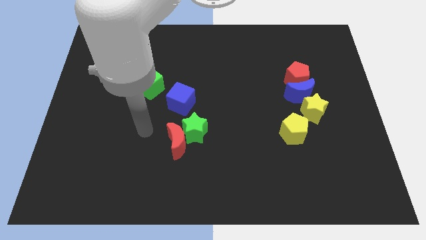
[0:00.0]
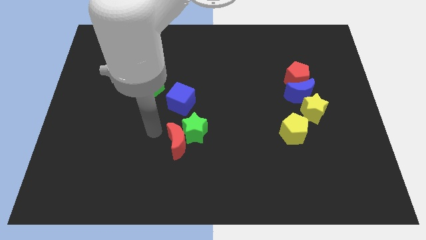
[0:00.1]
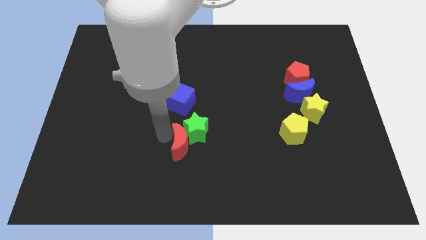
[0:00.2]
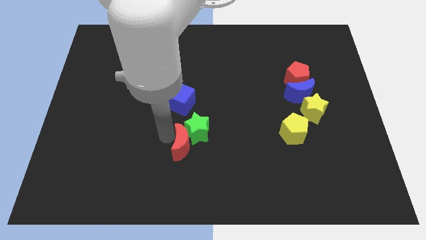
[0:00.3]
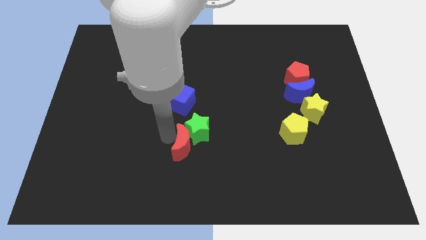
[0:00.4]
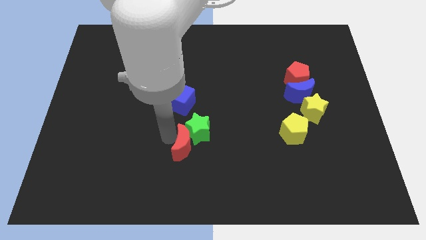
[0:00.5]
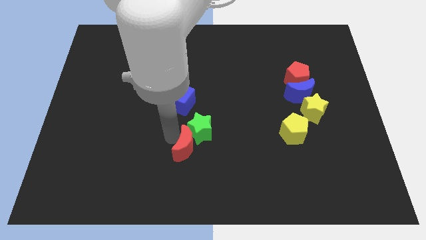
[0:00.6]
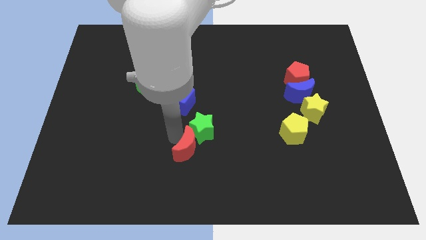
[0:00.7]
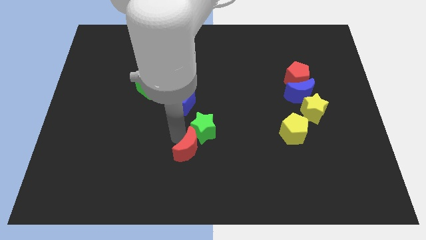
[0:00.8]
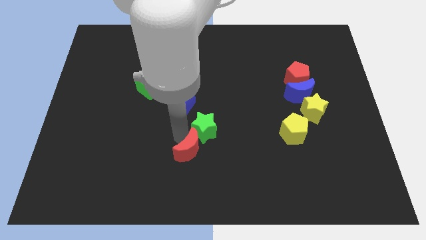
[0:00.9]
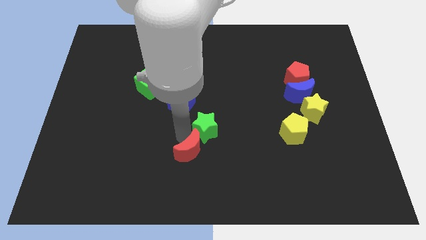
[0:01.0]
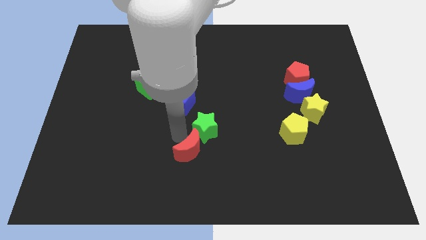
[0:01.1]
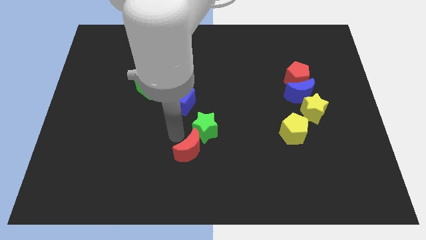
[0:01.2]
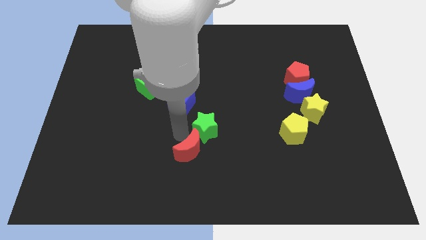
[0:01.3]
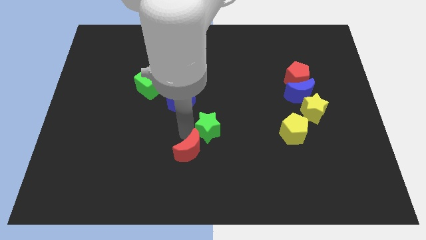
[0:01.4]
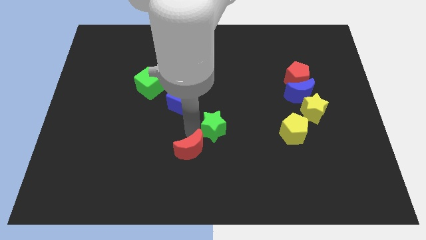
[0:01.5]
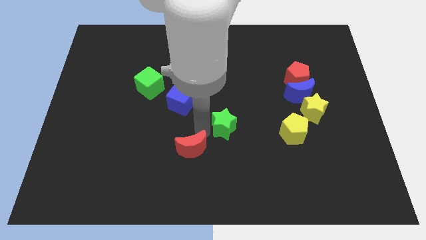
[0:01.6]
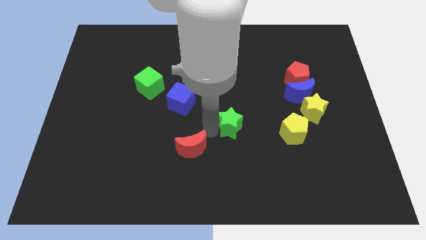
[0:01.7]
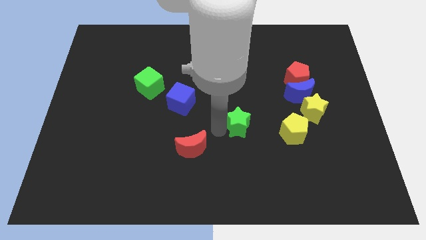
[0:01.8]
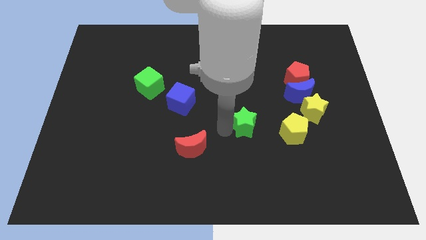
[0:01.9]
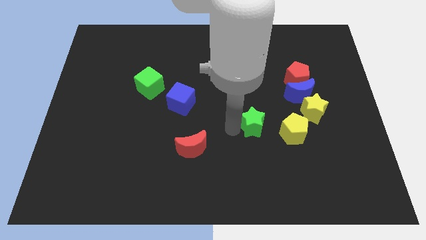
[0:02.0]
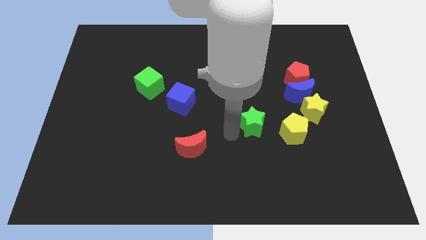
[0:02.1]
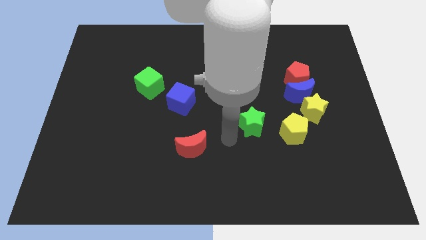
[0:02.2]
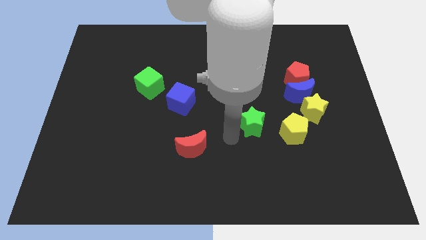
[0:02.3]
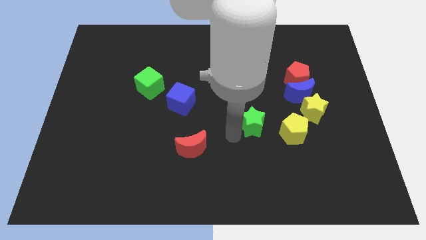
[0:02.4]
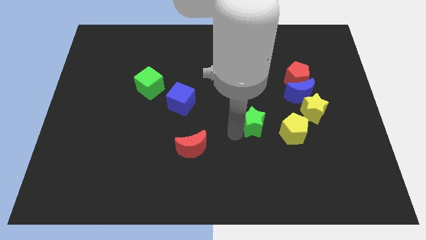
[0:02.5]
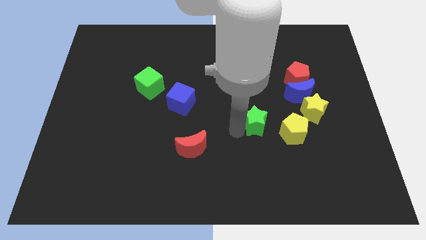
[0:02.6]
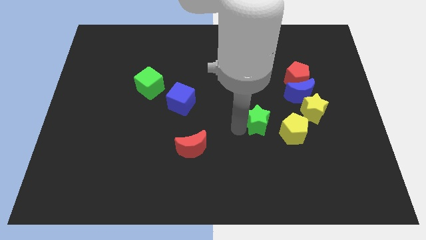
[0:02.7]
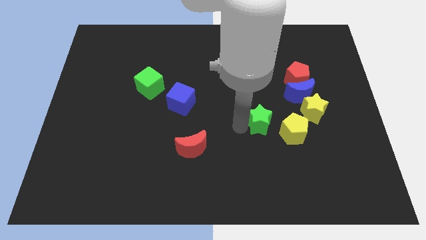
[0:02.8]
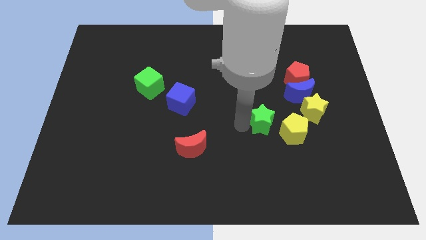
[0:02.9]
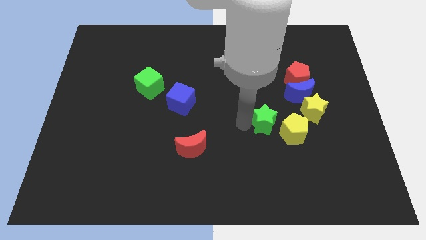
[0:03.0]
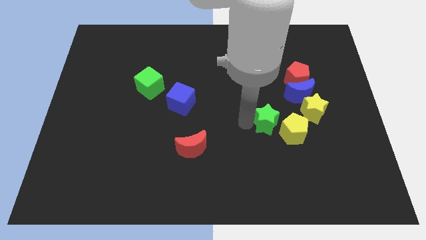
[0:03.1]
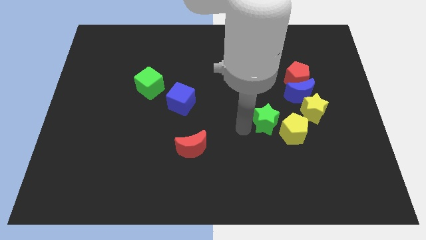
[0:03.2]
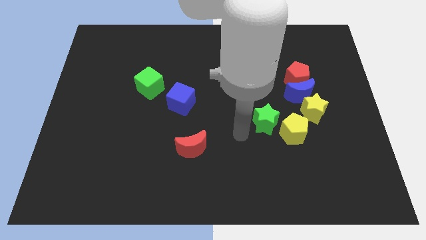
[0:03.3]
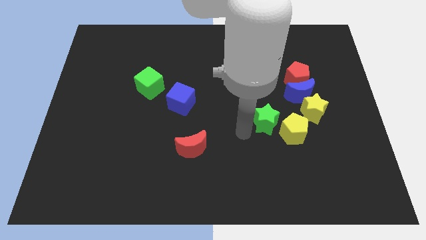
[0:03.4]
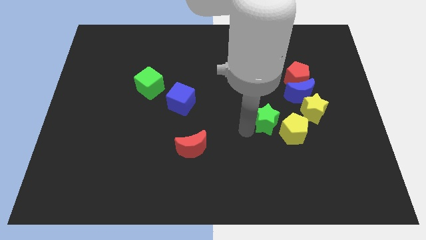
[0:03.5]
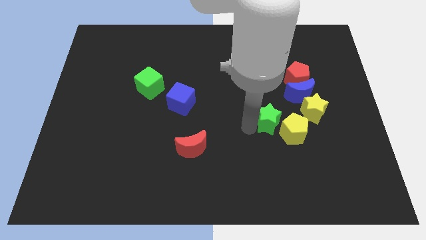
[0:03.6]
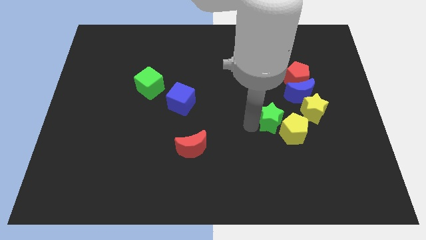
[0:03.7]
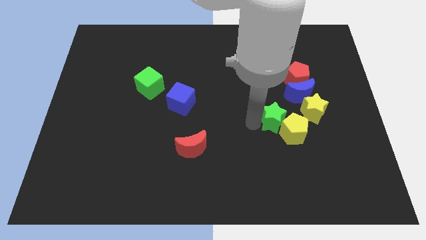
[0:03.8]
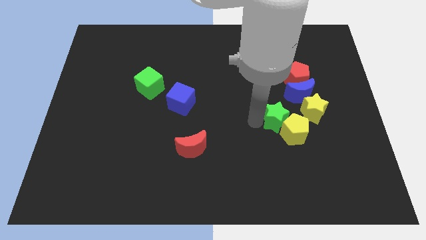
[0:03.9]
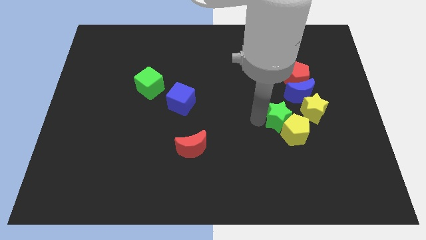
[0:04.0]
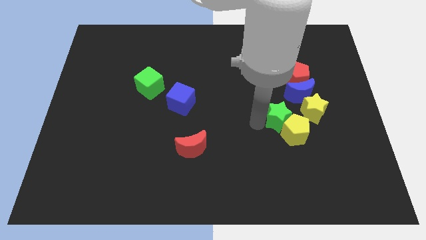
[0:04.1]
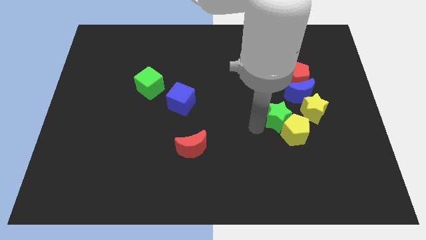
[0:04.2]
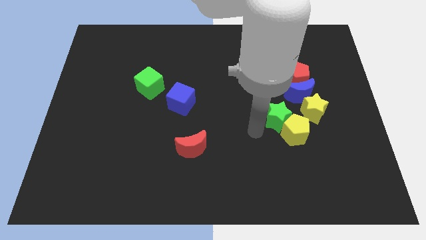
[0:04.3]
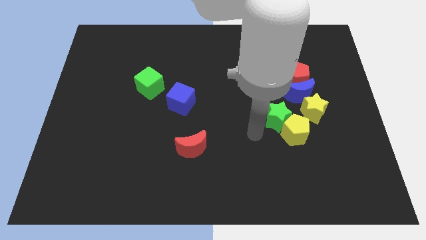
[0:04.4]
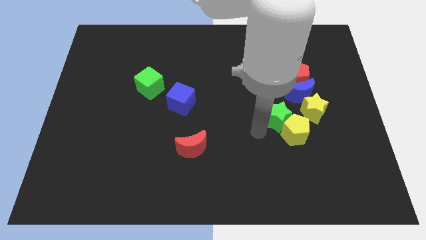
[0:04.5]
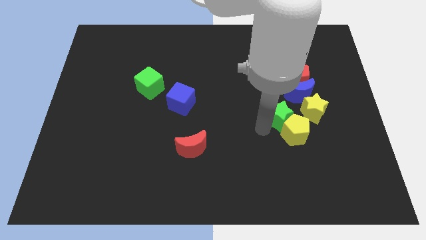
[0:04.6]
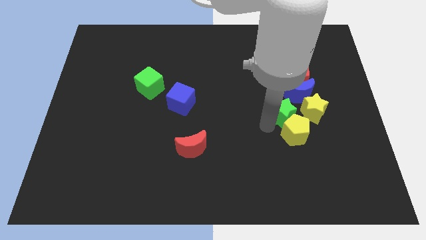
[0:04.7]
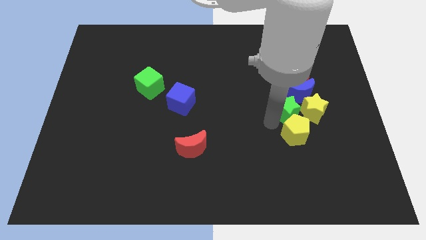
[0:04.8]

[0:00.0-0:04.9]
push the green star next to the yellow star

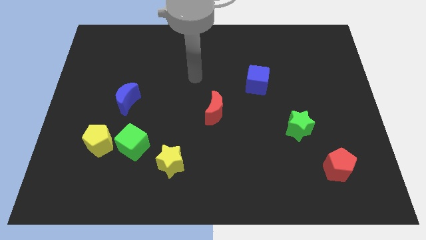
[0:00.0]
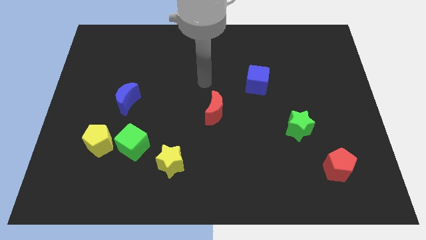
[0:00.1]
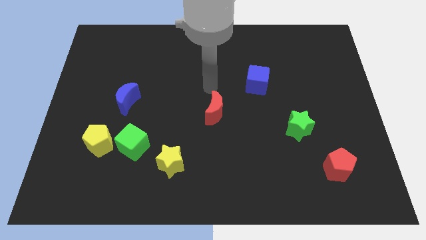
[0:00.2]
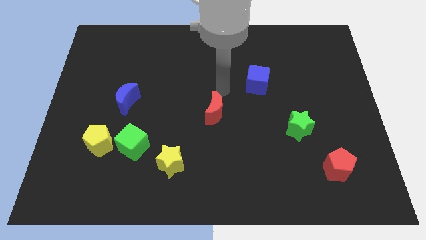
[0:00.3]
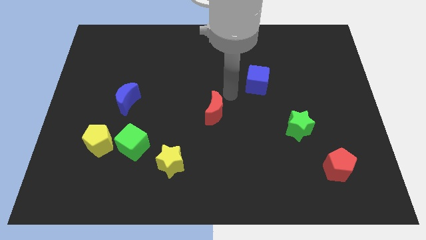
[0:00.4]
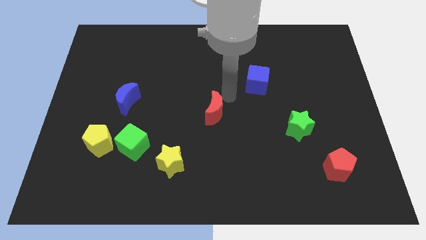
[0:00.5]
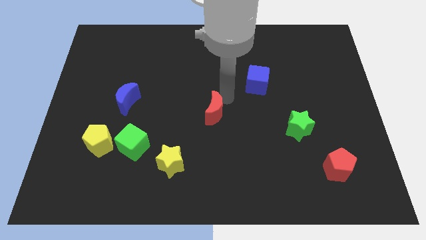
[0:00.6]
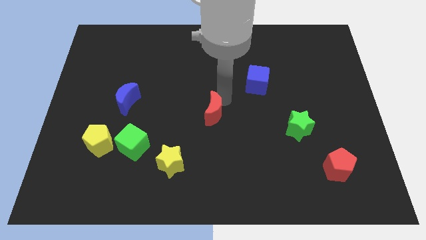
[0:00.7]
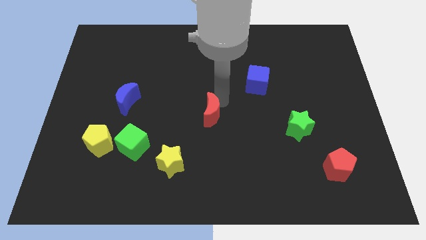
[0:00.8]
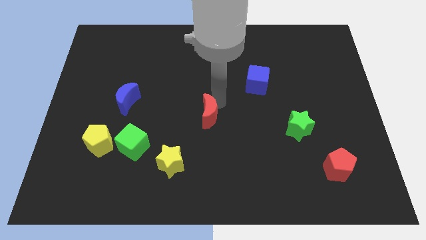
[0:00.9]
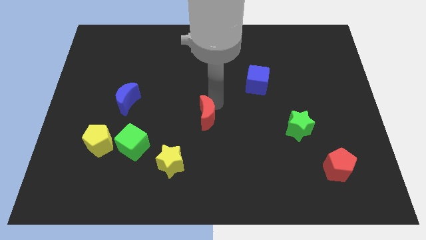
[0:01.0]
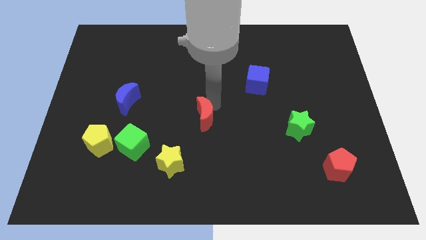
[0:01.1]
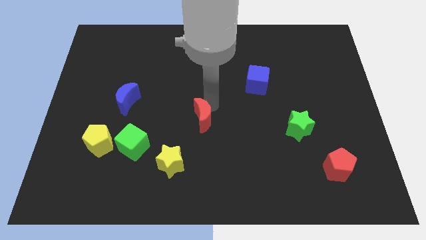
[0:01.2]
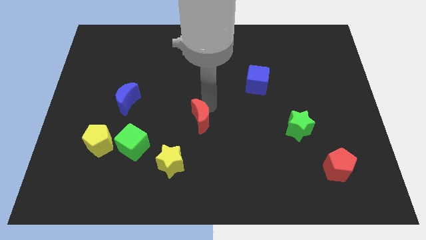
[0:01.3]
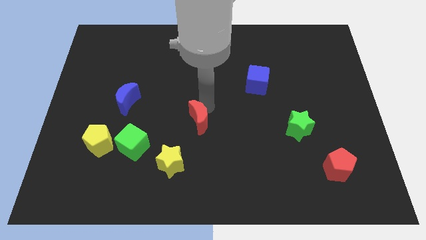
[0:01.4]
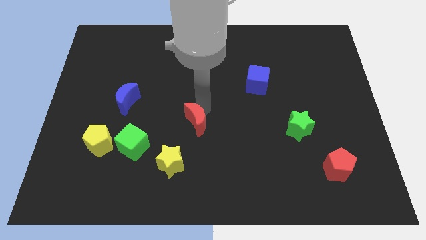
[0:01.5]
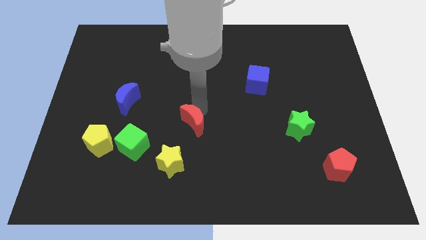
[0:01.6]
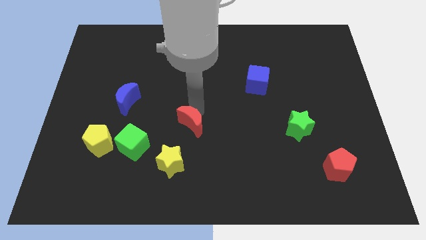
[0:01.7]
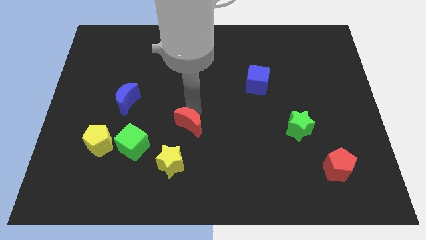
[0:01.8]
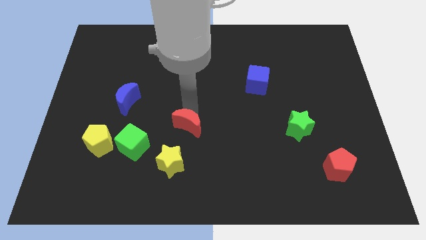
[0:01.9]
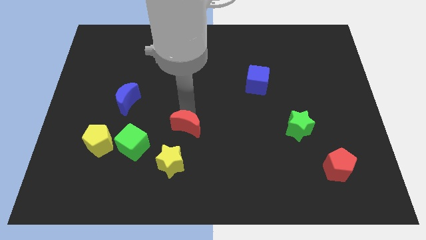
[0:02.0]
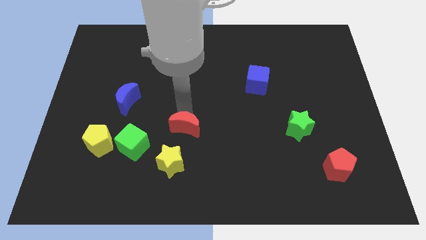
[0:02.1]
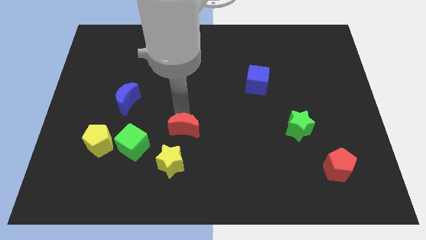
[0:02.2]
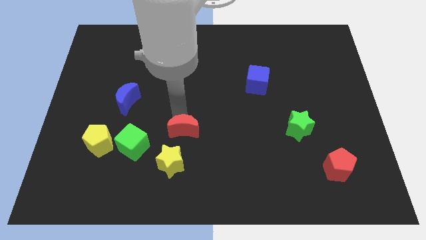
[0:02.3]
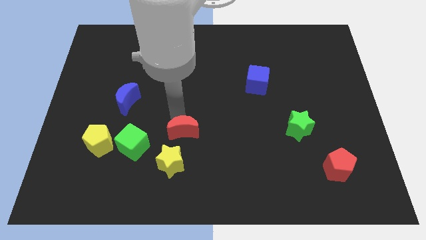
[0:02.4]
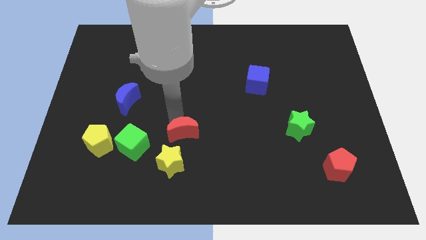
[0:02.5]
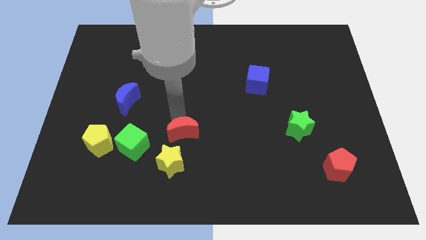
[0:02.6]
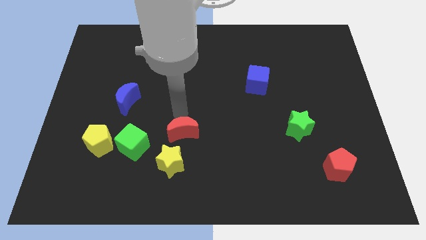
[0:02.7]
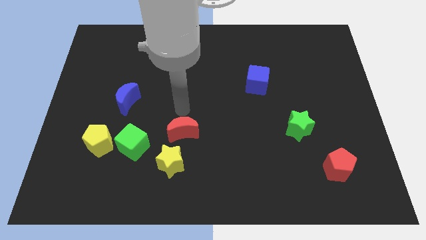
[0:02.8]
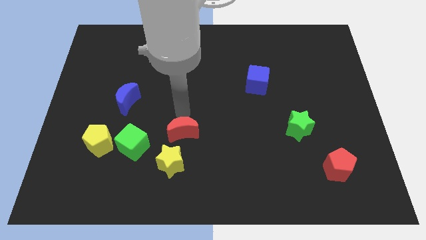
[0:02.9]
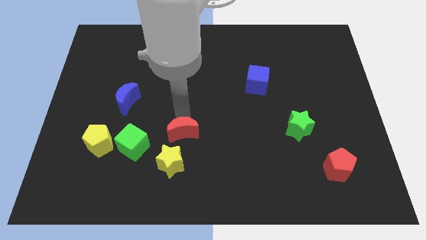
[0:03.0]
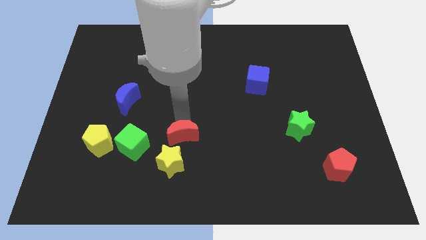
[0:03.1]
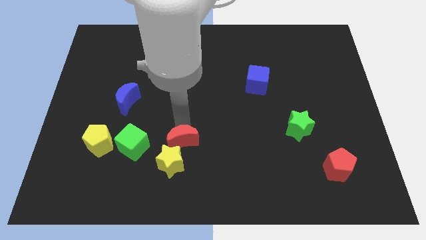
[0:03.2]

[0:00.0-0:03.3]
push the red moon close to the yellow star
